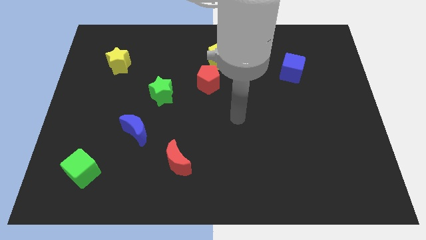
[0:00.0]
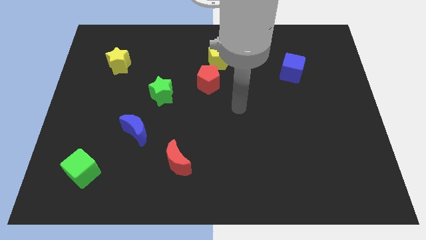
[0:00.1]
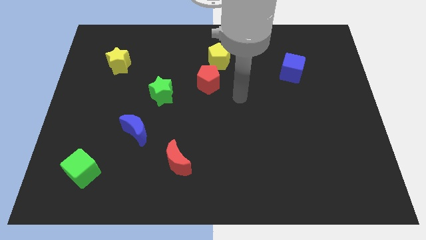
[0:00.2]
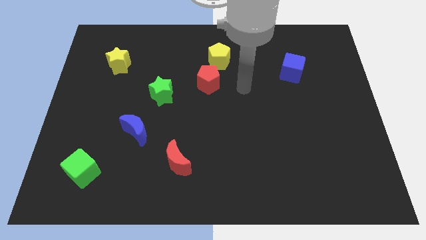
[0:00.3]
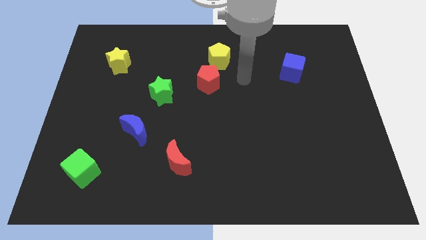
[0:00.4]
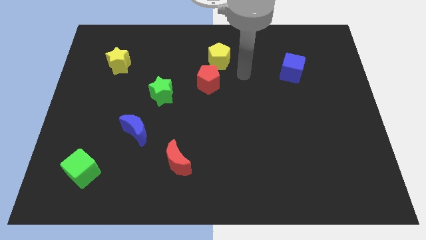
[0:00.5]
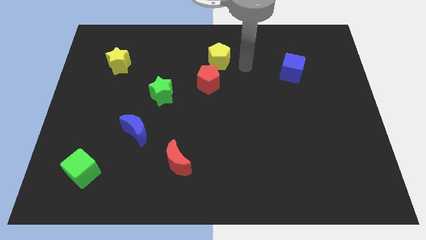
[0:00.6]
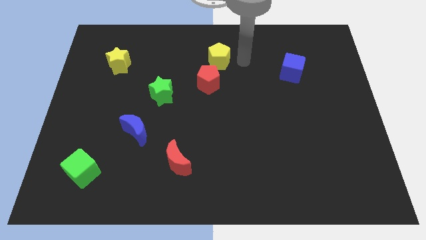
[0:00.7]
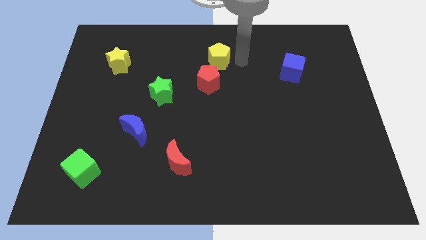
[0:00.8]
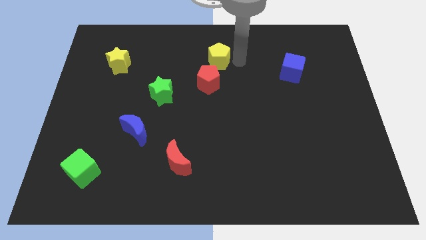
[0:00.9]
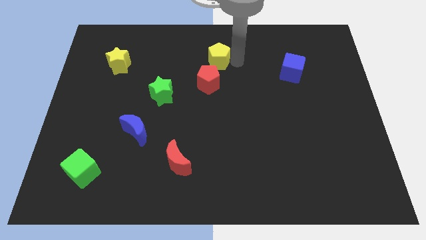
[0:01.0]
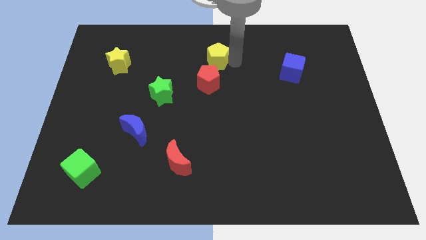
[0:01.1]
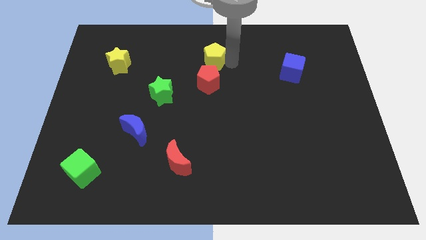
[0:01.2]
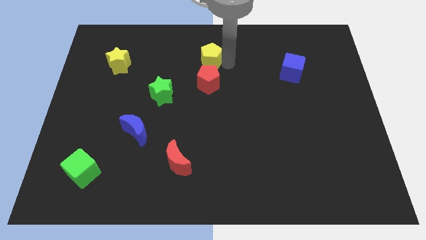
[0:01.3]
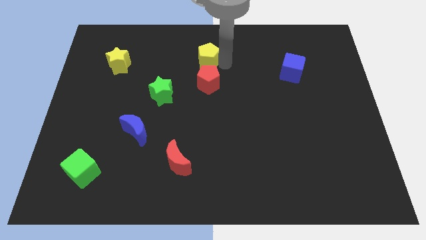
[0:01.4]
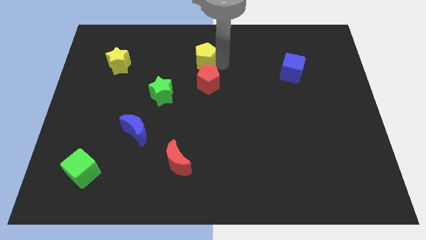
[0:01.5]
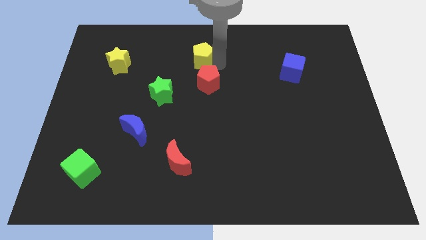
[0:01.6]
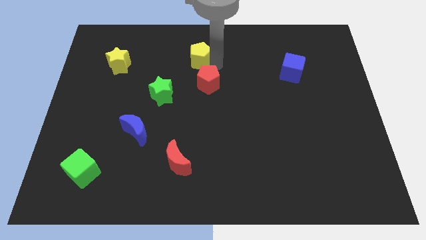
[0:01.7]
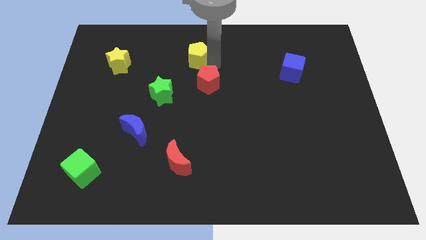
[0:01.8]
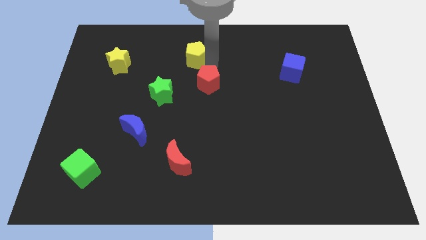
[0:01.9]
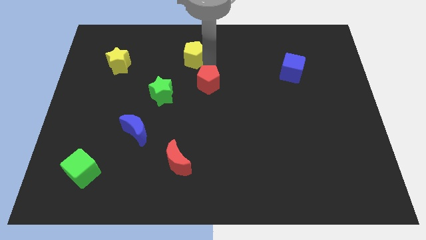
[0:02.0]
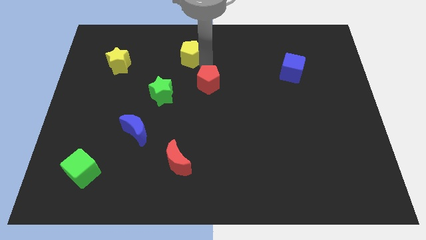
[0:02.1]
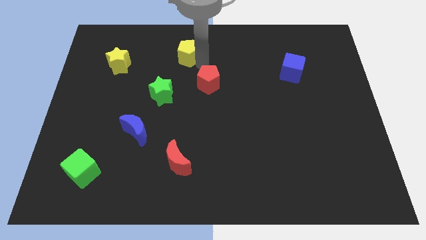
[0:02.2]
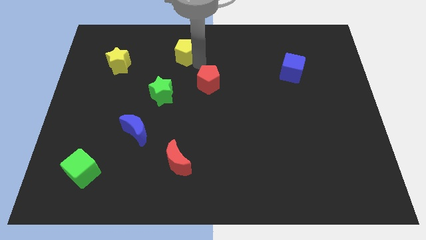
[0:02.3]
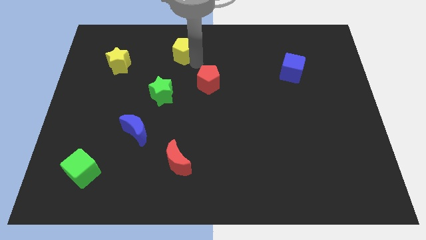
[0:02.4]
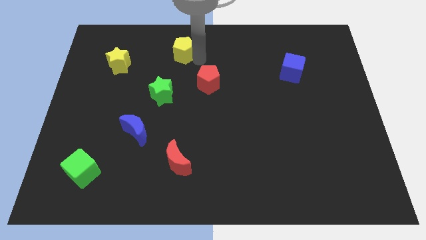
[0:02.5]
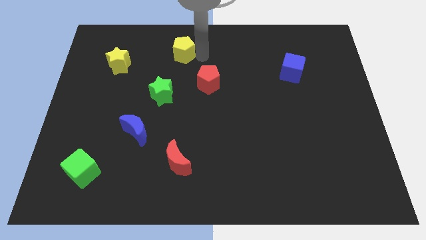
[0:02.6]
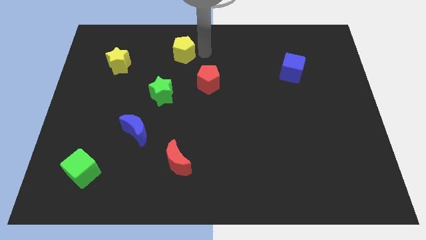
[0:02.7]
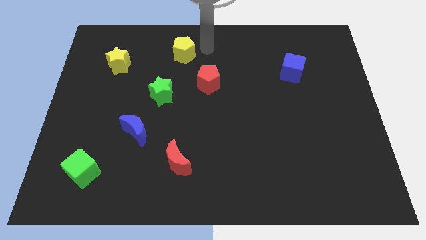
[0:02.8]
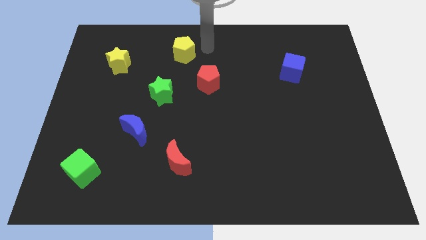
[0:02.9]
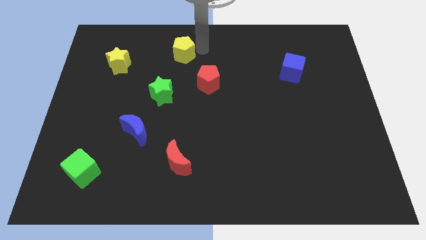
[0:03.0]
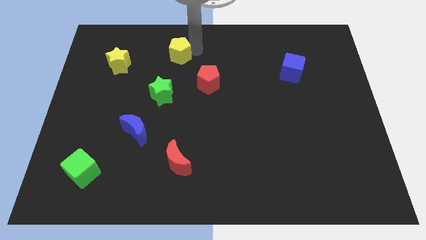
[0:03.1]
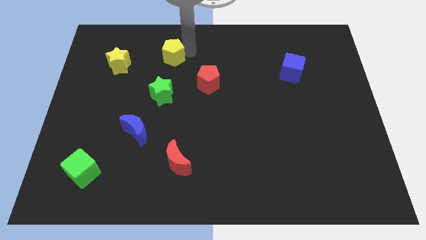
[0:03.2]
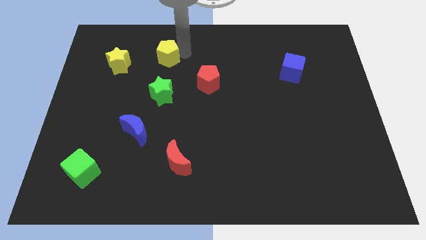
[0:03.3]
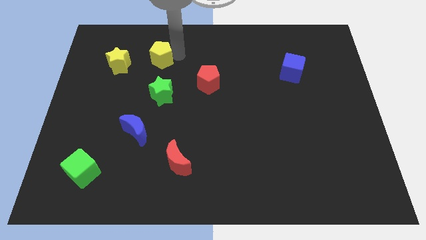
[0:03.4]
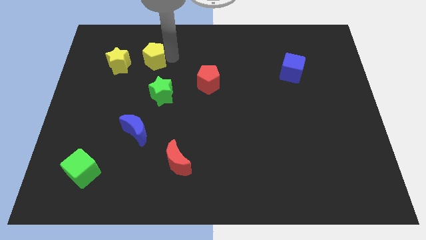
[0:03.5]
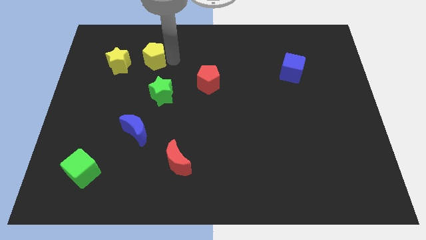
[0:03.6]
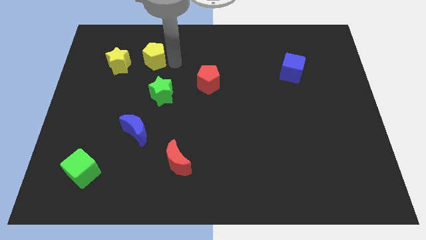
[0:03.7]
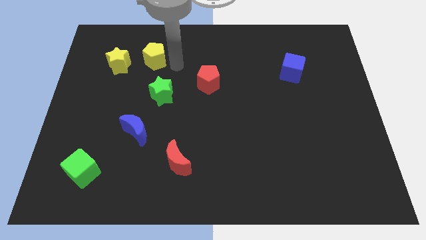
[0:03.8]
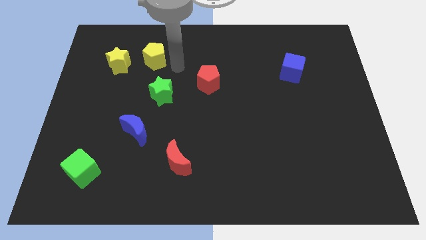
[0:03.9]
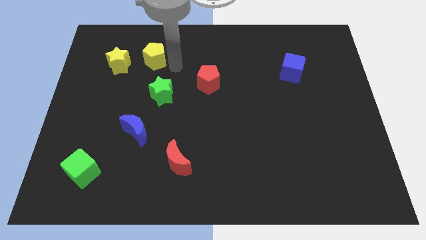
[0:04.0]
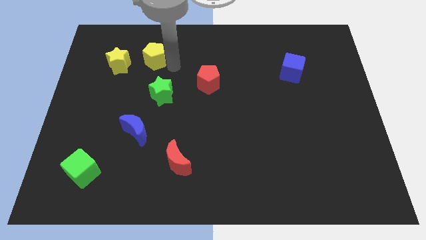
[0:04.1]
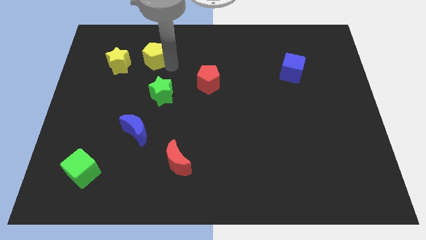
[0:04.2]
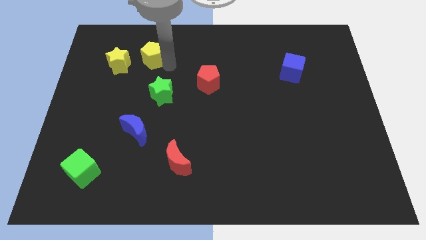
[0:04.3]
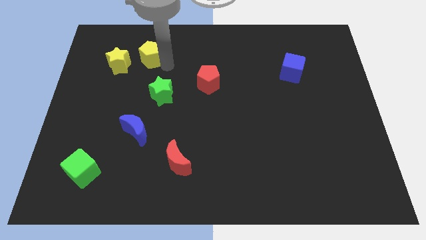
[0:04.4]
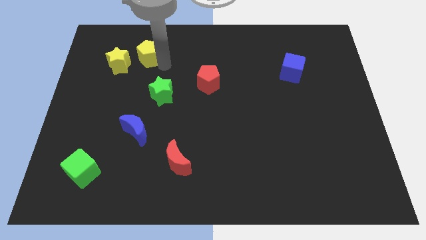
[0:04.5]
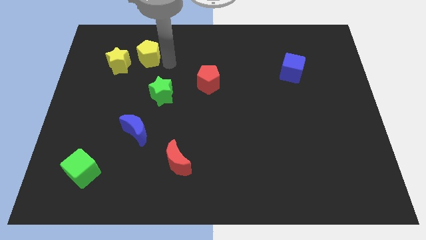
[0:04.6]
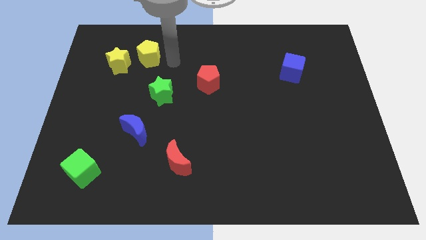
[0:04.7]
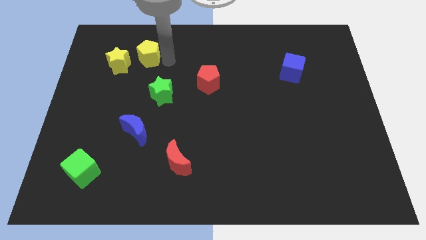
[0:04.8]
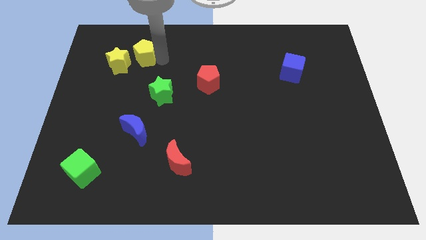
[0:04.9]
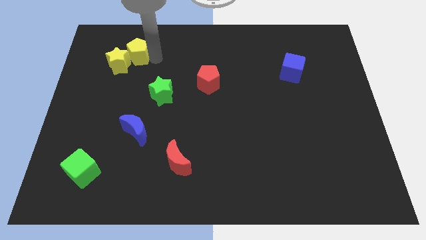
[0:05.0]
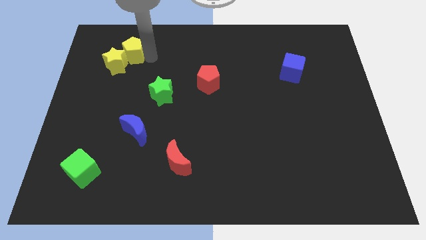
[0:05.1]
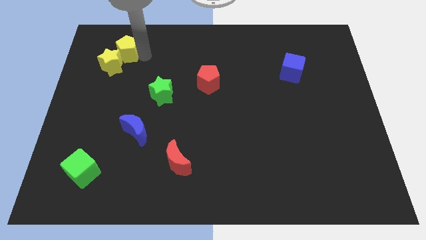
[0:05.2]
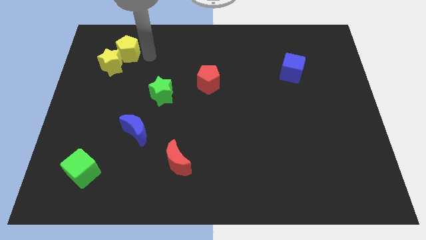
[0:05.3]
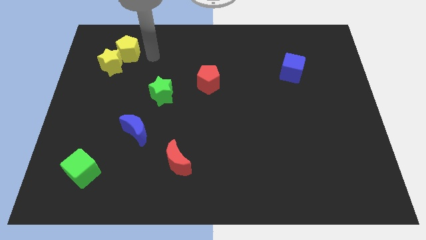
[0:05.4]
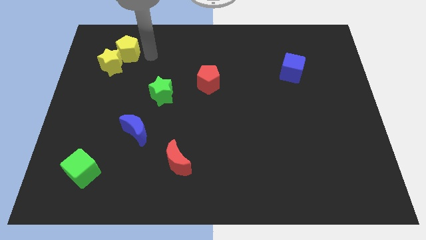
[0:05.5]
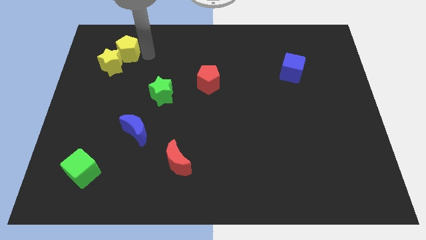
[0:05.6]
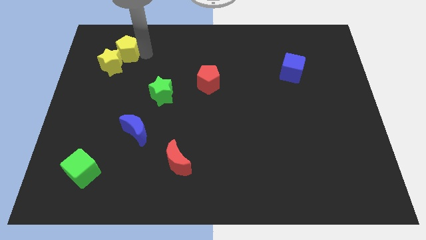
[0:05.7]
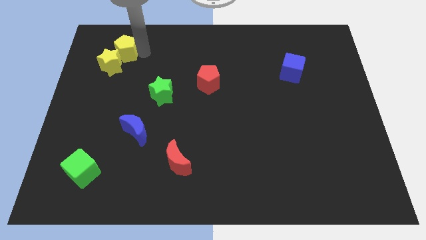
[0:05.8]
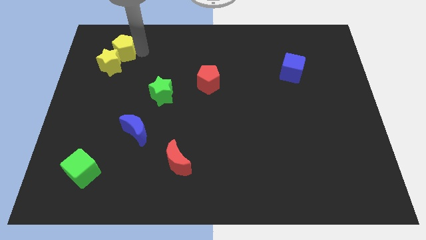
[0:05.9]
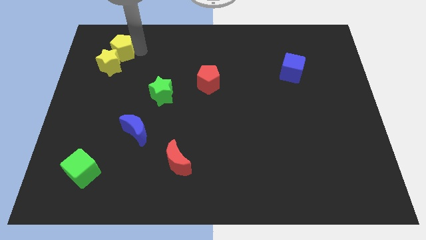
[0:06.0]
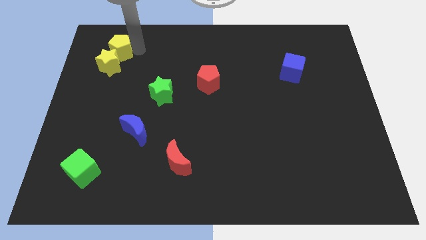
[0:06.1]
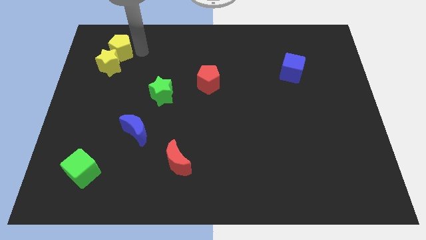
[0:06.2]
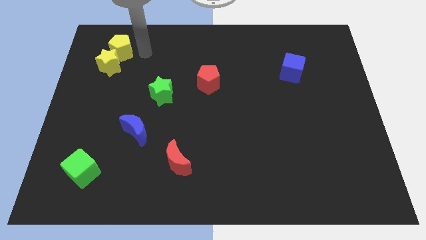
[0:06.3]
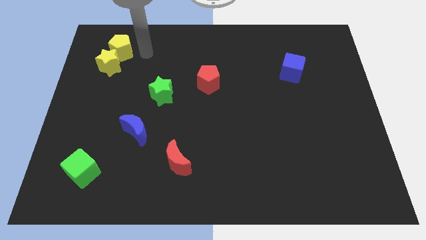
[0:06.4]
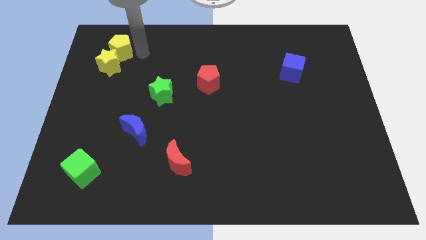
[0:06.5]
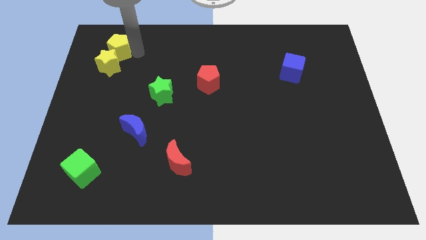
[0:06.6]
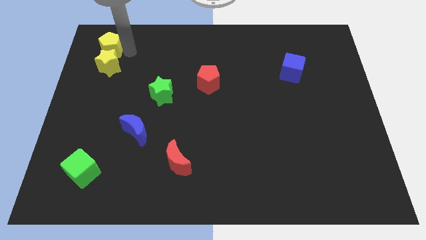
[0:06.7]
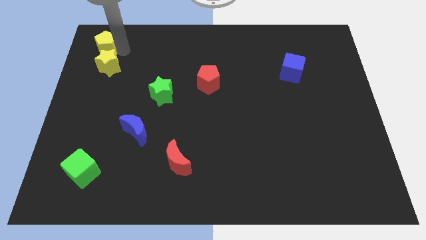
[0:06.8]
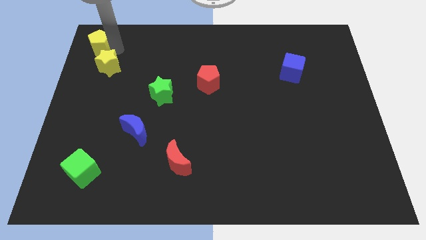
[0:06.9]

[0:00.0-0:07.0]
move the yellow pentagon to the top left

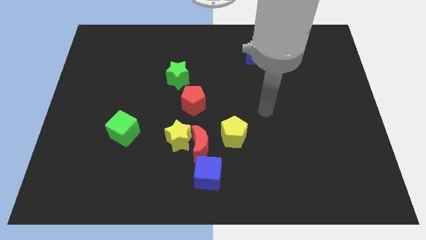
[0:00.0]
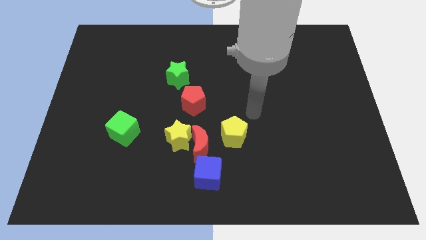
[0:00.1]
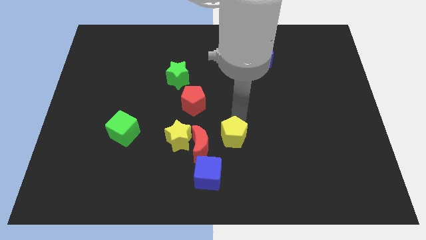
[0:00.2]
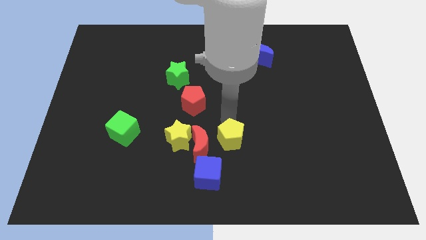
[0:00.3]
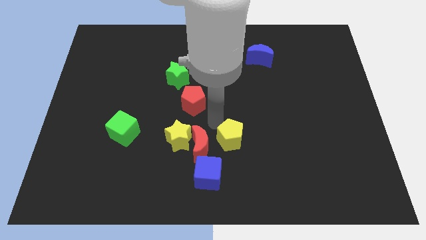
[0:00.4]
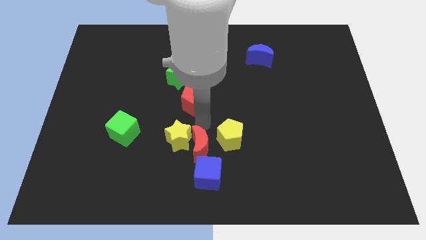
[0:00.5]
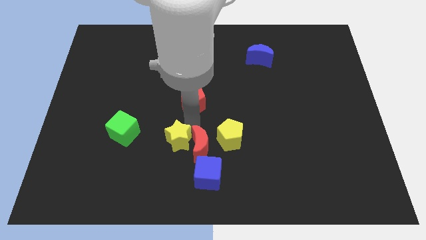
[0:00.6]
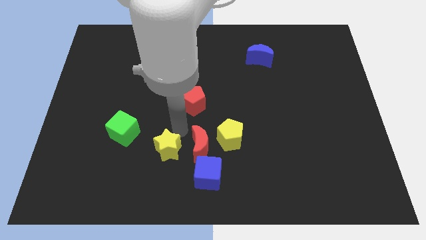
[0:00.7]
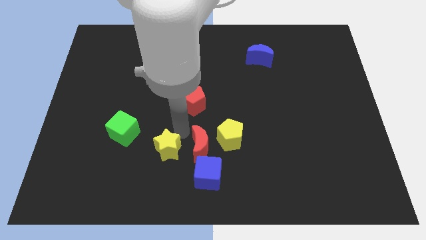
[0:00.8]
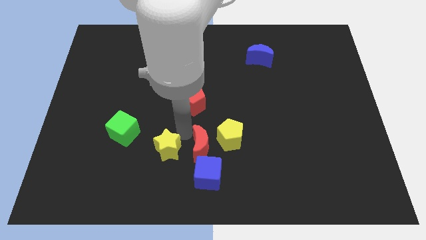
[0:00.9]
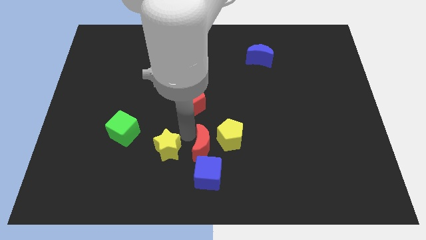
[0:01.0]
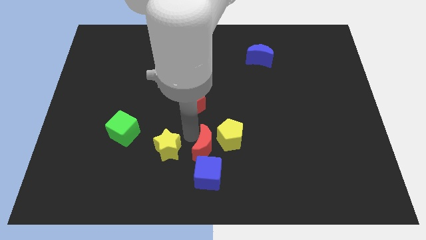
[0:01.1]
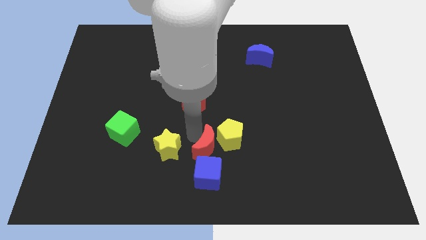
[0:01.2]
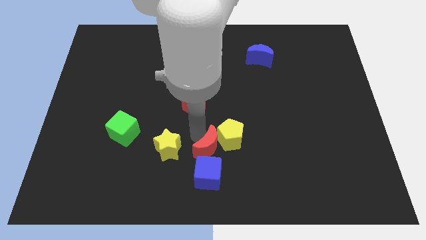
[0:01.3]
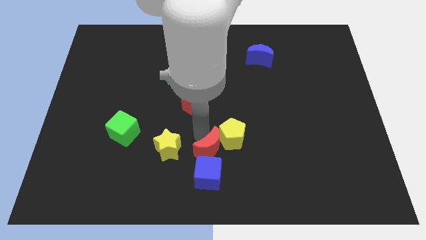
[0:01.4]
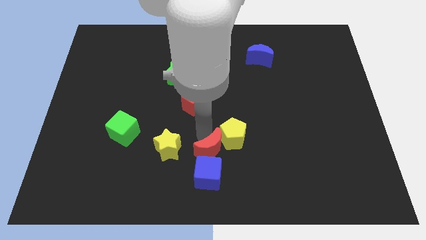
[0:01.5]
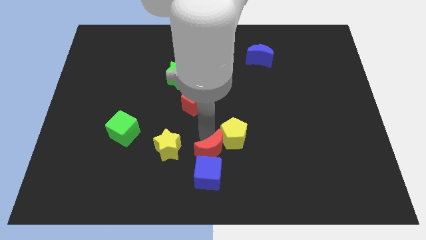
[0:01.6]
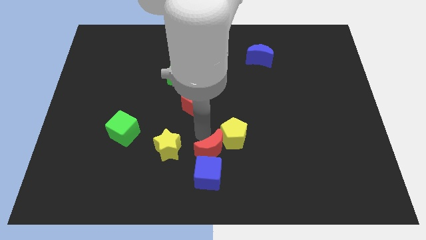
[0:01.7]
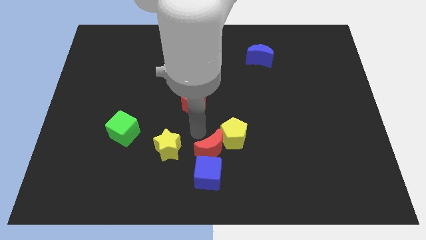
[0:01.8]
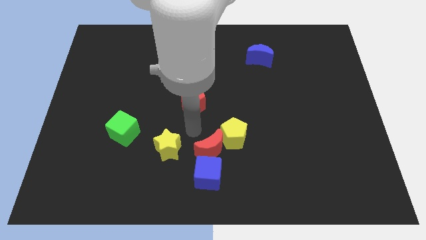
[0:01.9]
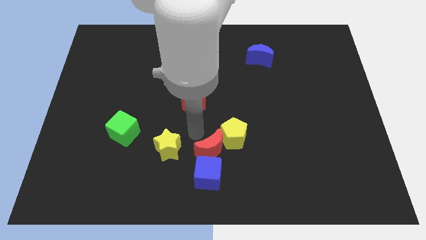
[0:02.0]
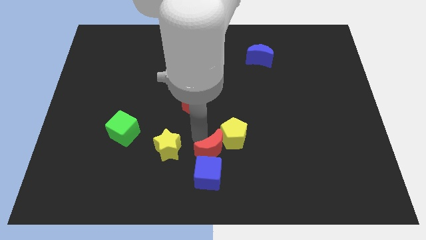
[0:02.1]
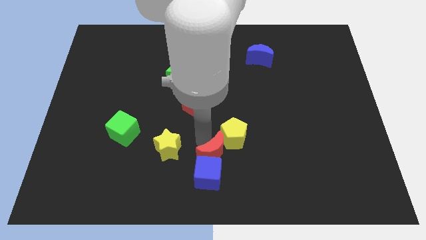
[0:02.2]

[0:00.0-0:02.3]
slide the red moon to the bottom
